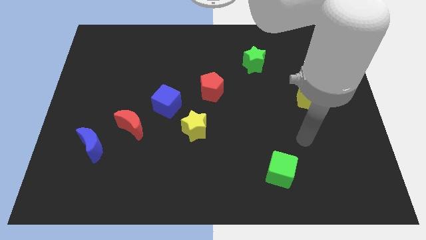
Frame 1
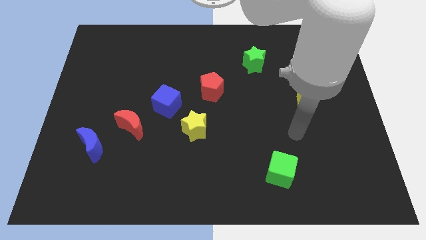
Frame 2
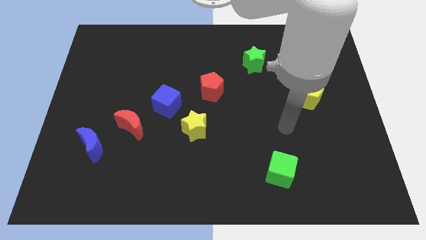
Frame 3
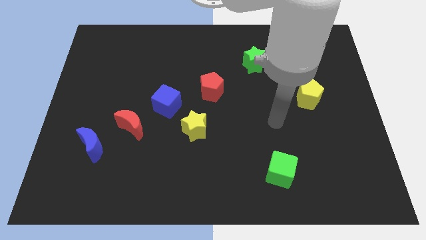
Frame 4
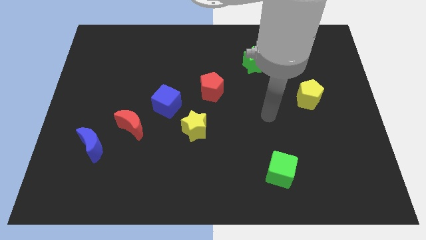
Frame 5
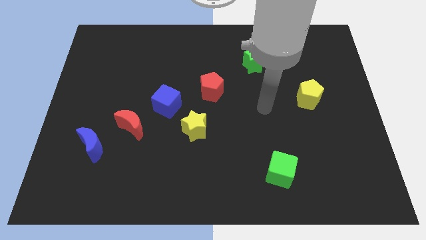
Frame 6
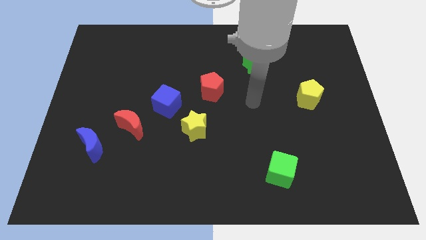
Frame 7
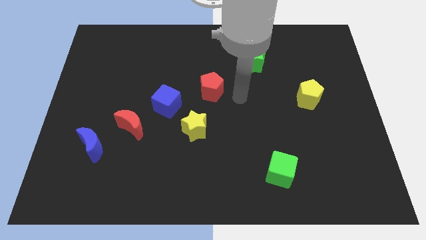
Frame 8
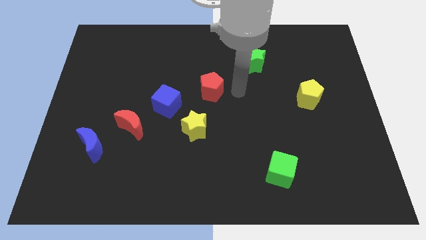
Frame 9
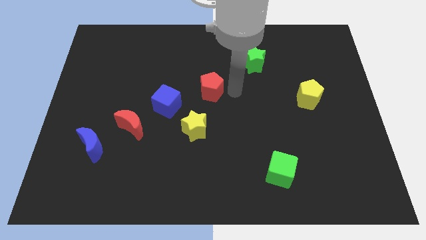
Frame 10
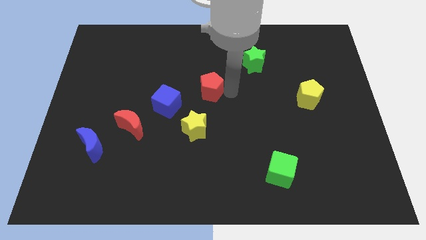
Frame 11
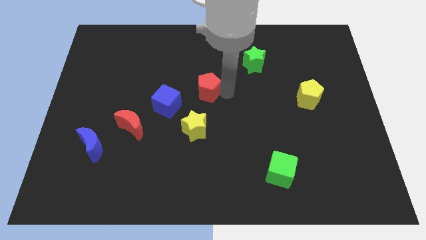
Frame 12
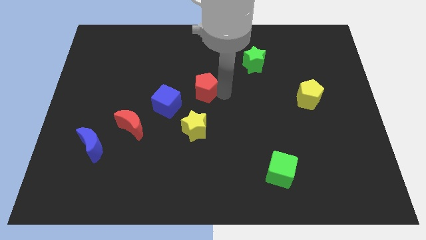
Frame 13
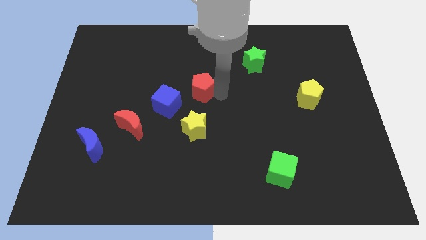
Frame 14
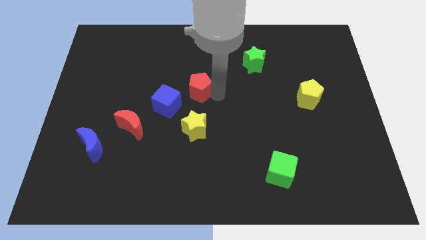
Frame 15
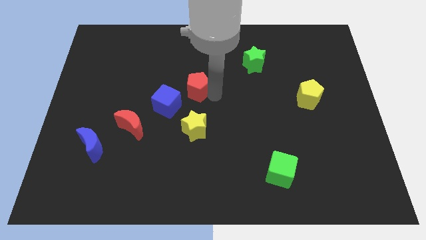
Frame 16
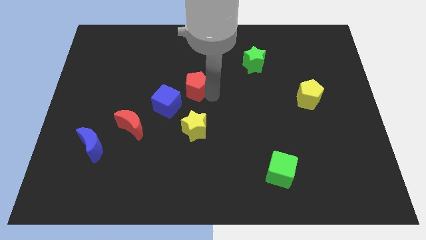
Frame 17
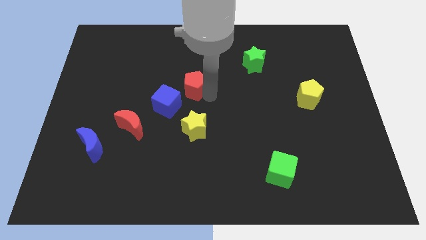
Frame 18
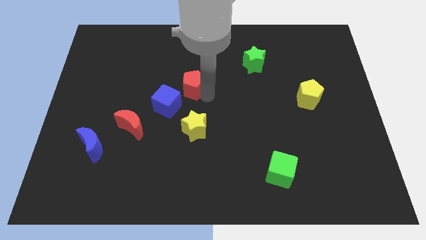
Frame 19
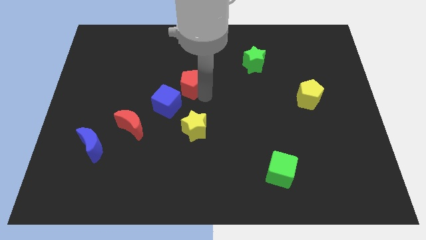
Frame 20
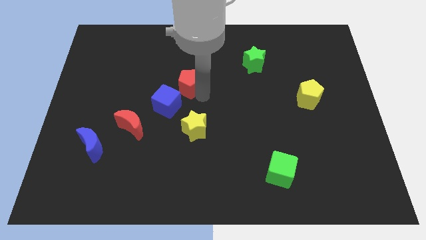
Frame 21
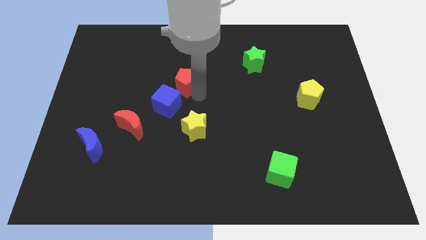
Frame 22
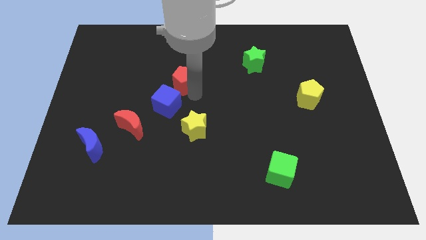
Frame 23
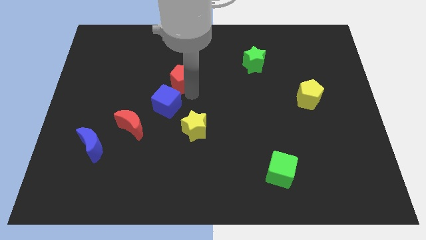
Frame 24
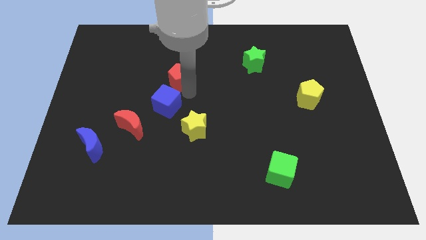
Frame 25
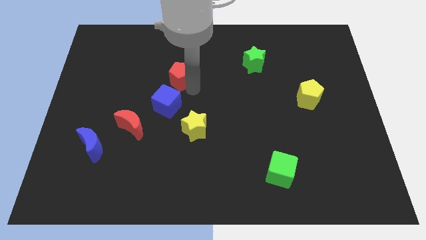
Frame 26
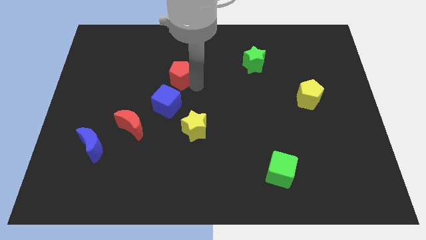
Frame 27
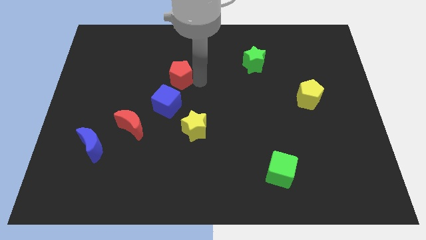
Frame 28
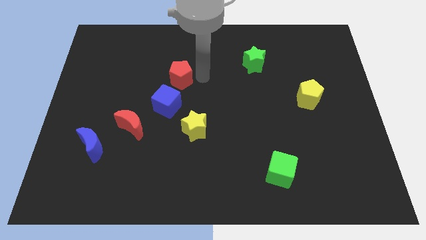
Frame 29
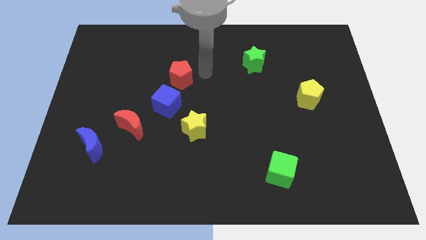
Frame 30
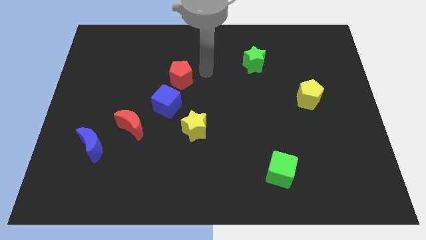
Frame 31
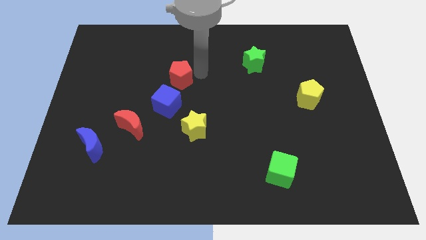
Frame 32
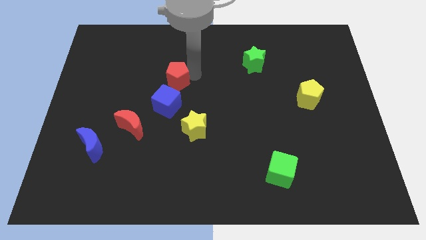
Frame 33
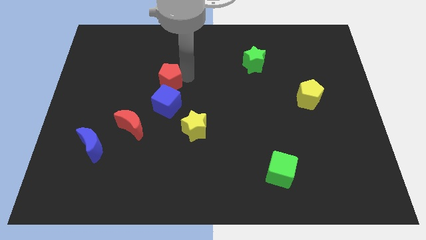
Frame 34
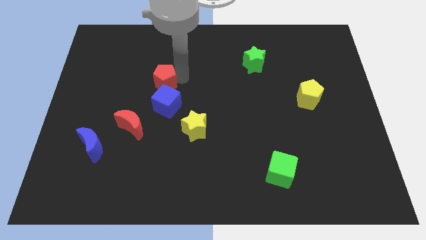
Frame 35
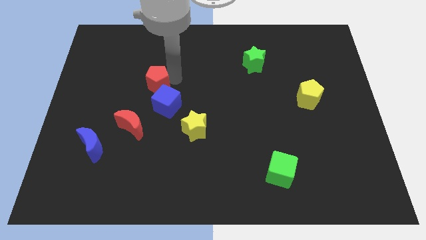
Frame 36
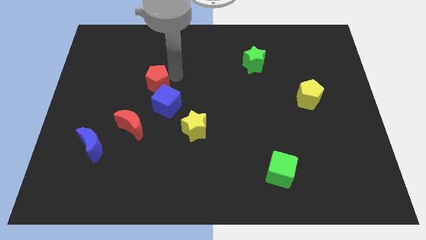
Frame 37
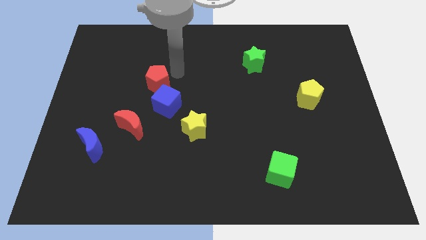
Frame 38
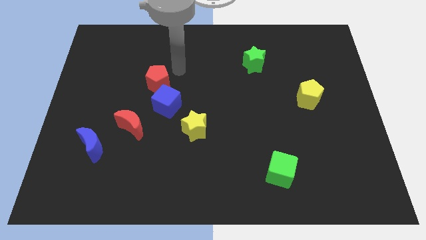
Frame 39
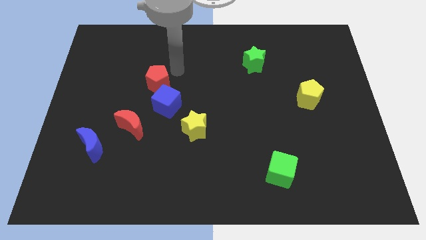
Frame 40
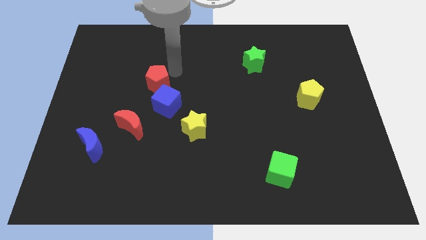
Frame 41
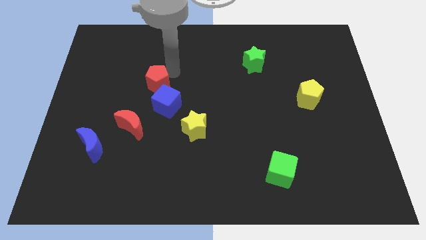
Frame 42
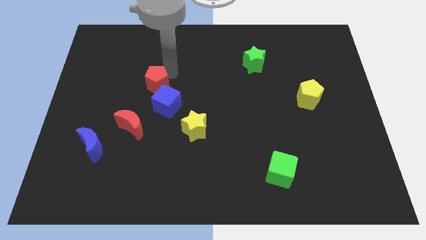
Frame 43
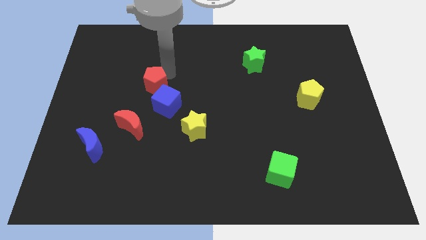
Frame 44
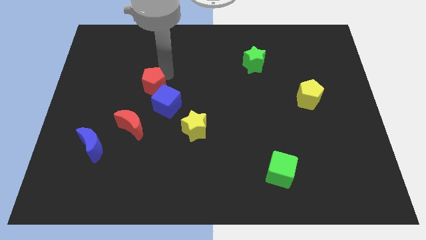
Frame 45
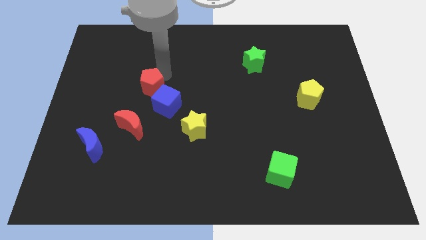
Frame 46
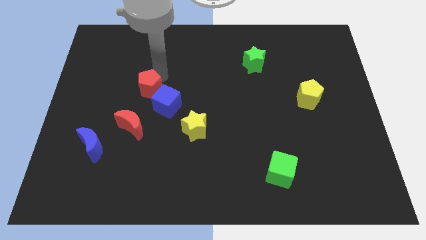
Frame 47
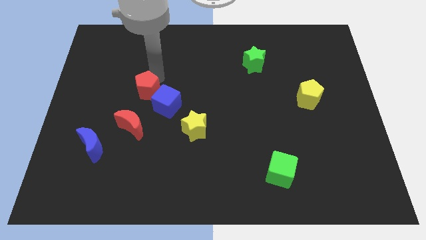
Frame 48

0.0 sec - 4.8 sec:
put the red pentagon to the left side of the blue cube

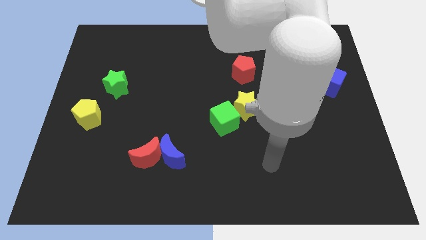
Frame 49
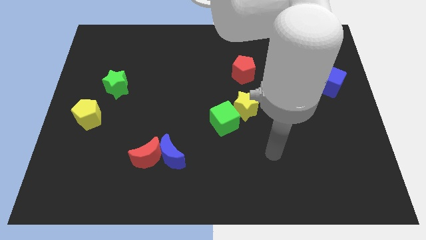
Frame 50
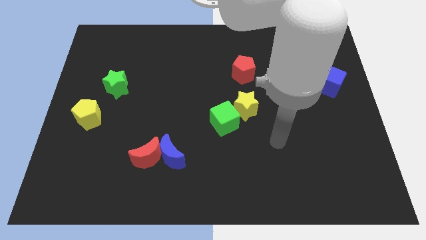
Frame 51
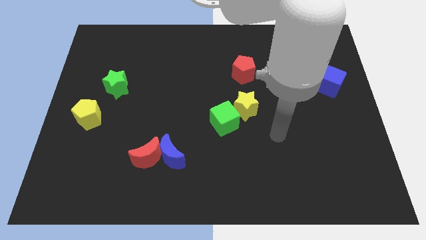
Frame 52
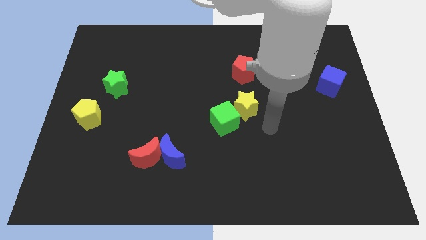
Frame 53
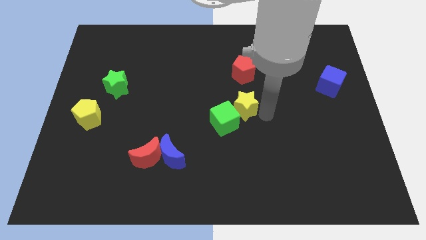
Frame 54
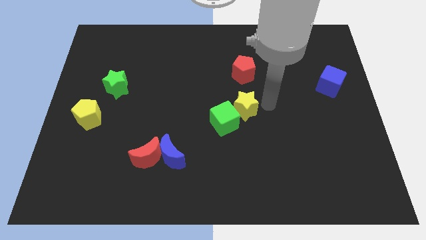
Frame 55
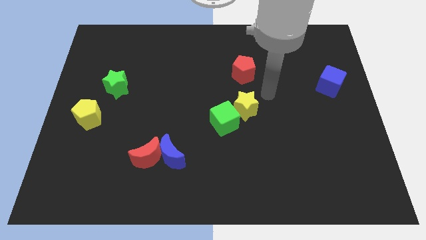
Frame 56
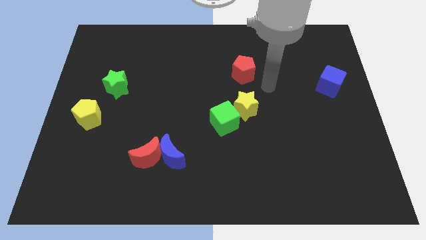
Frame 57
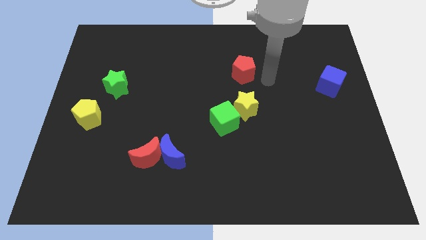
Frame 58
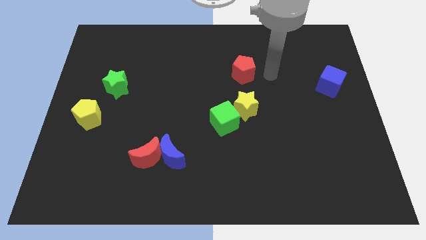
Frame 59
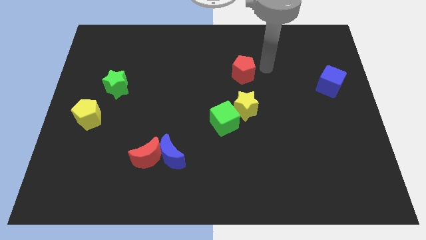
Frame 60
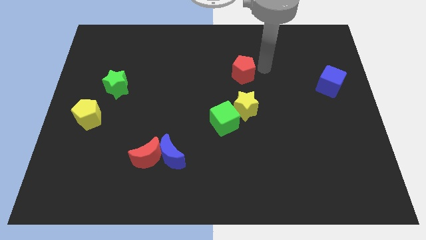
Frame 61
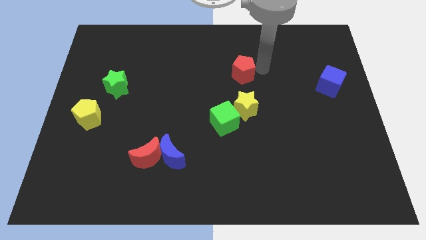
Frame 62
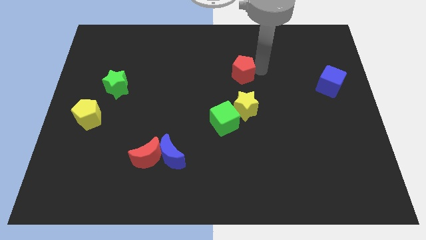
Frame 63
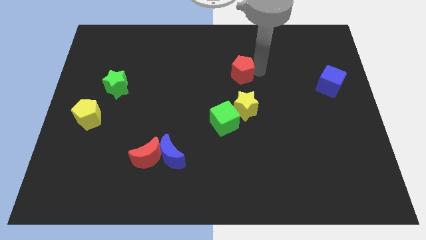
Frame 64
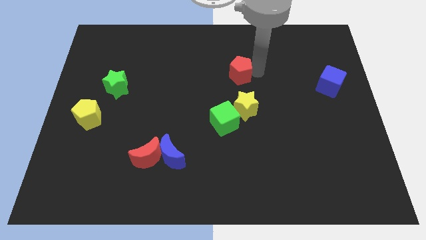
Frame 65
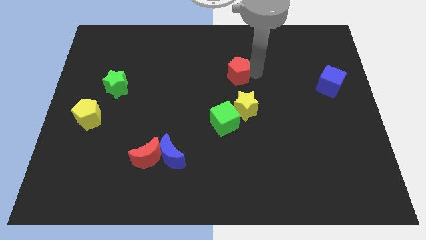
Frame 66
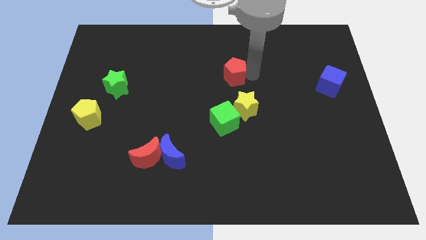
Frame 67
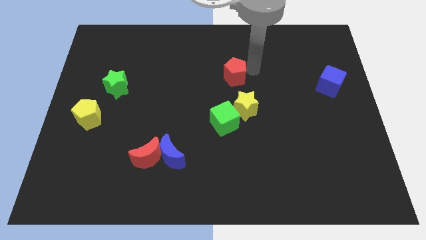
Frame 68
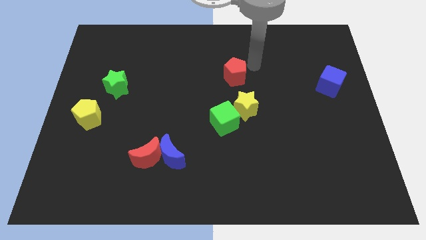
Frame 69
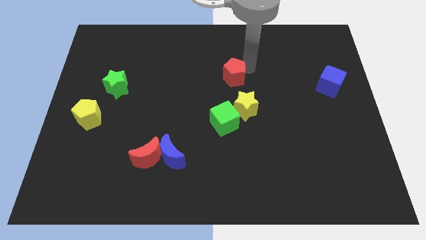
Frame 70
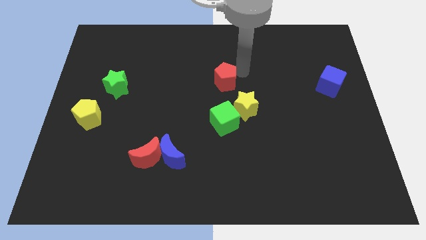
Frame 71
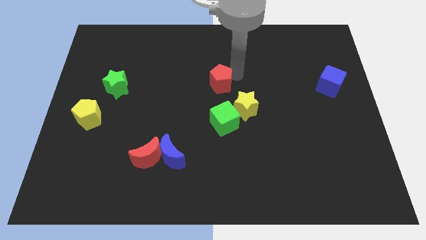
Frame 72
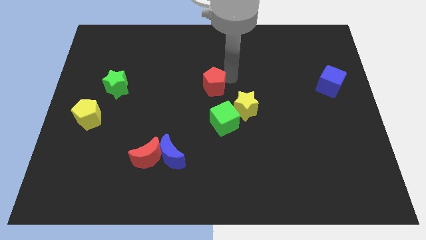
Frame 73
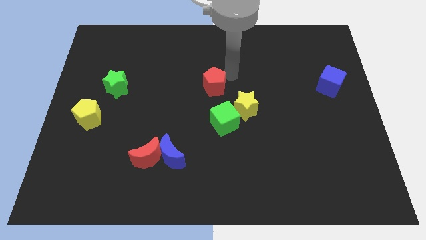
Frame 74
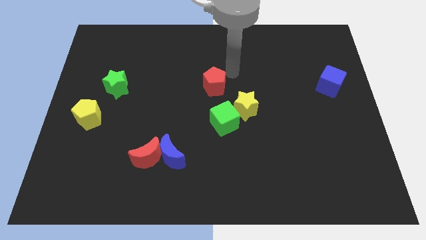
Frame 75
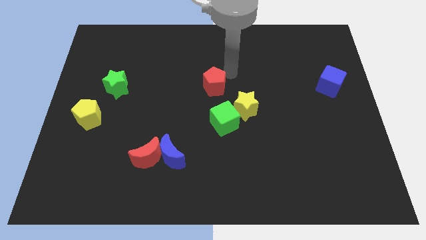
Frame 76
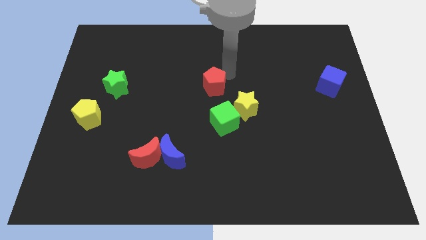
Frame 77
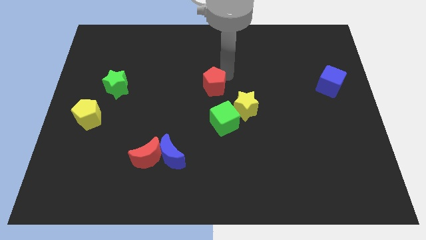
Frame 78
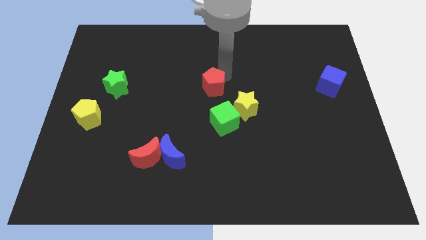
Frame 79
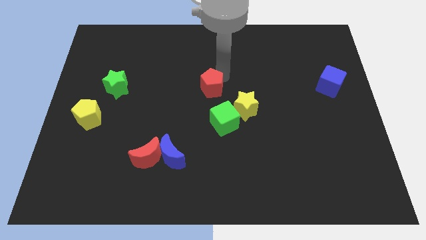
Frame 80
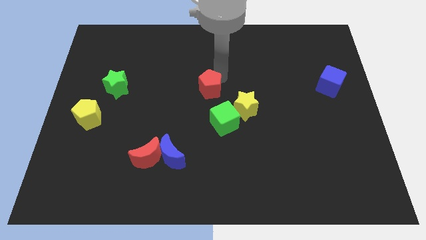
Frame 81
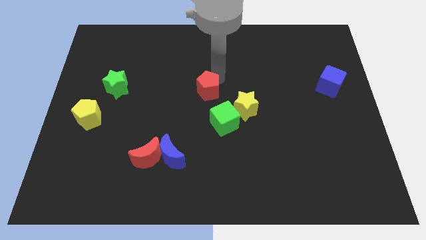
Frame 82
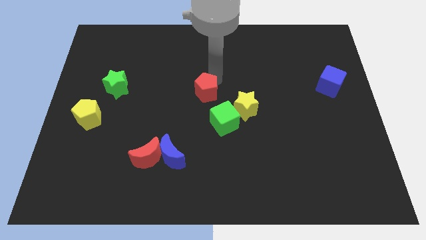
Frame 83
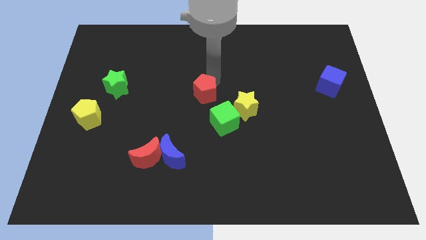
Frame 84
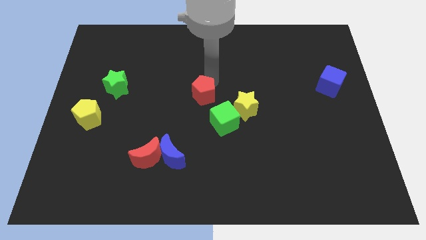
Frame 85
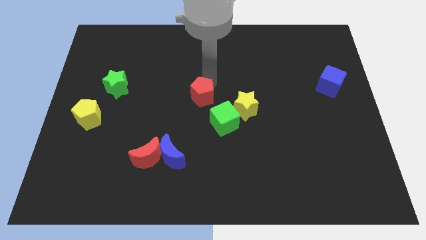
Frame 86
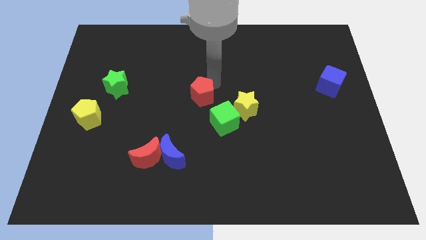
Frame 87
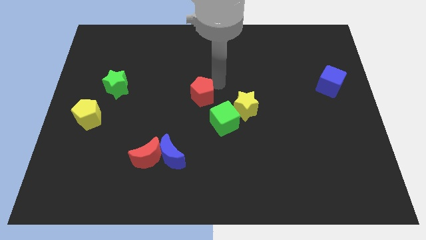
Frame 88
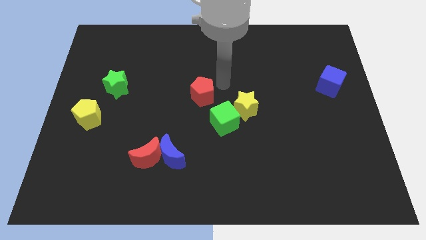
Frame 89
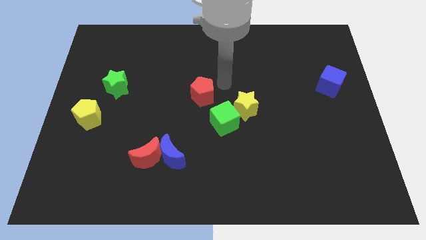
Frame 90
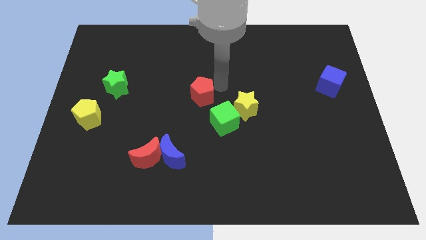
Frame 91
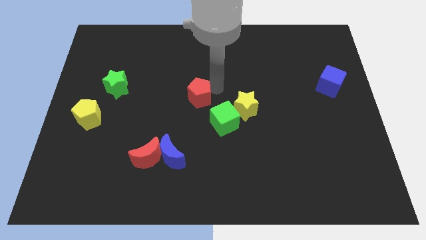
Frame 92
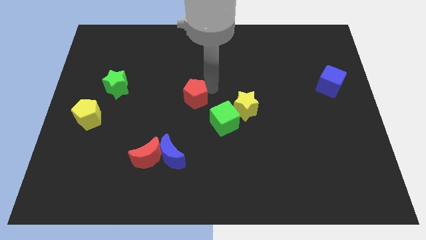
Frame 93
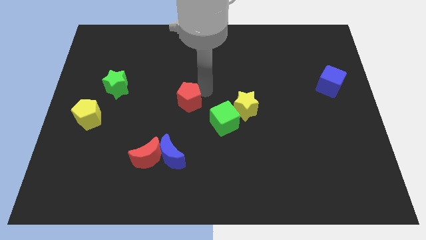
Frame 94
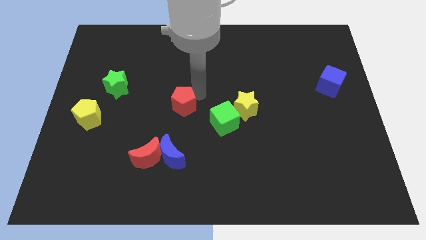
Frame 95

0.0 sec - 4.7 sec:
slide the red pentagon to the top side of the blue moon
